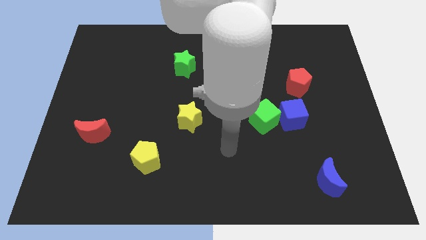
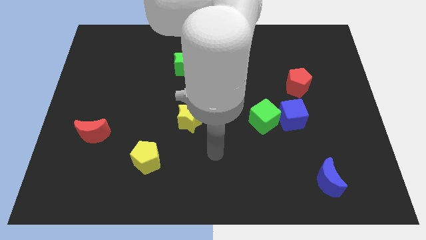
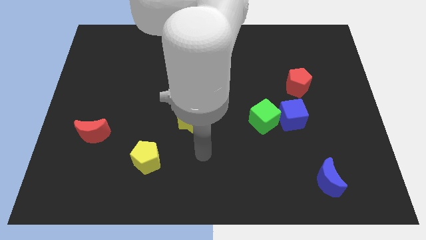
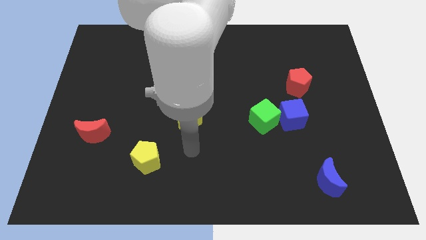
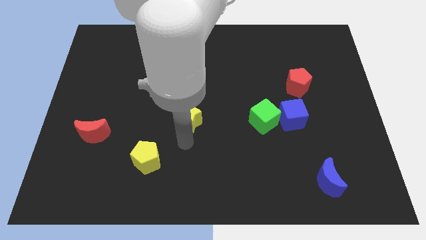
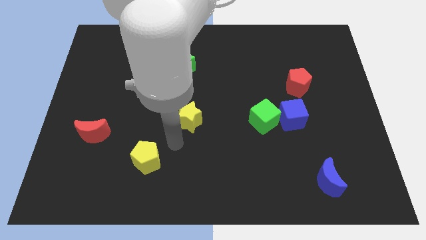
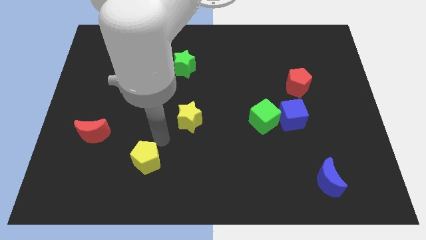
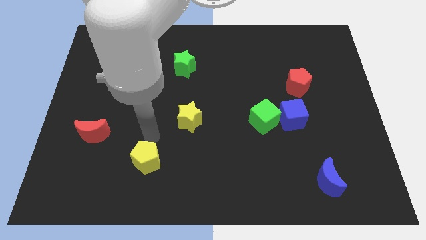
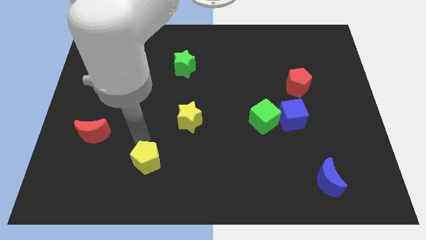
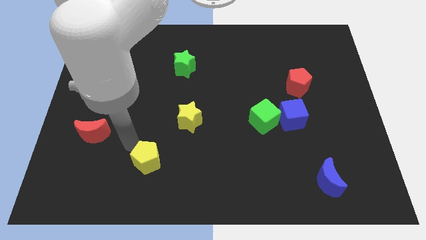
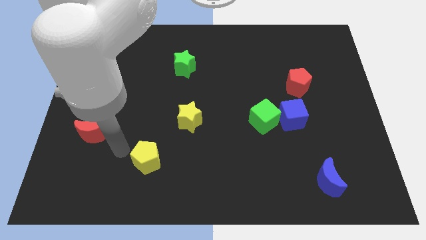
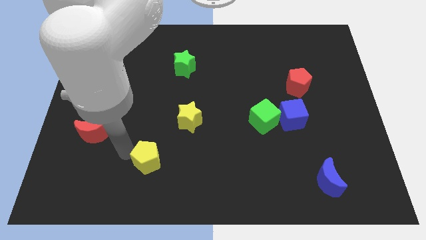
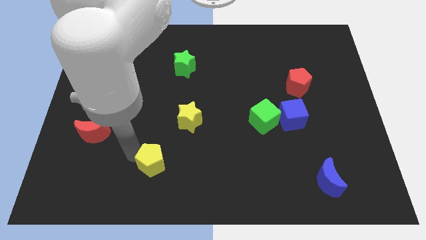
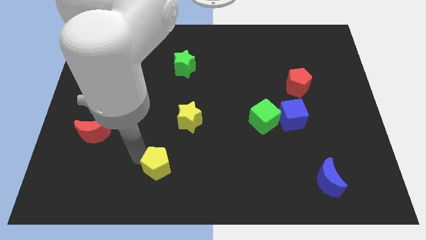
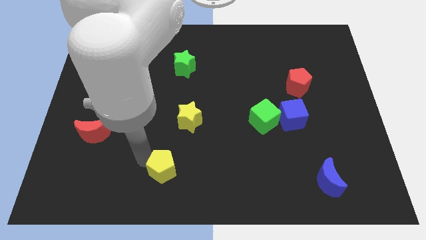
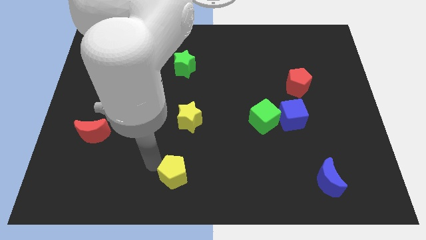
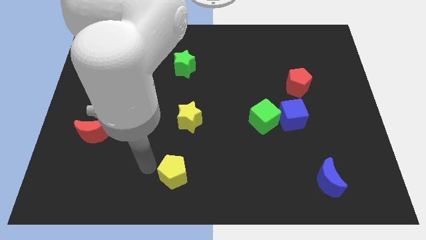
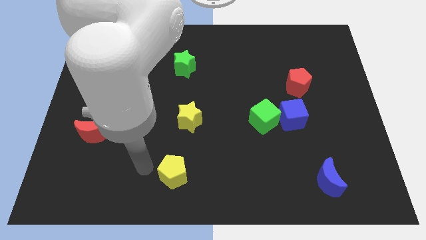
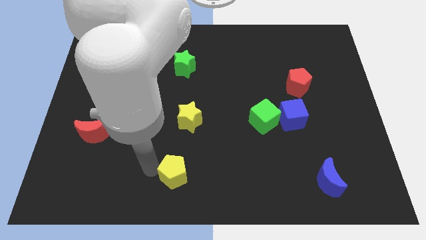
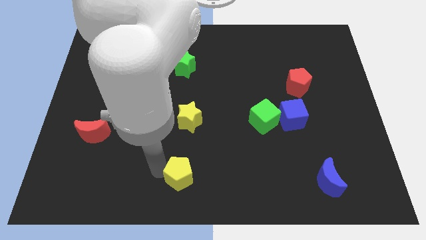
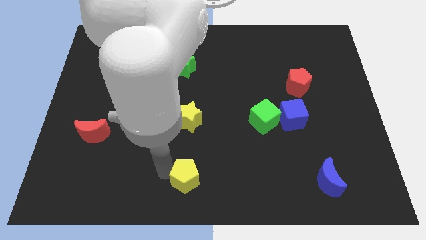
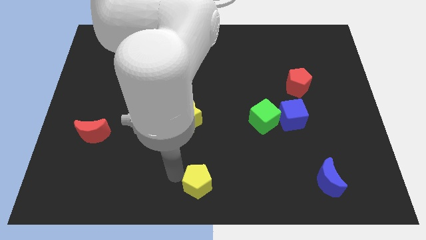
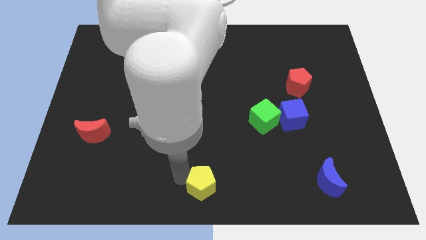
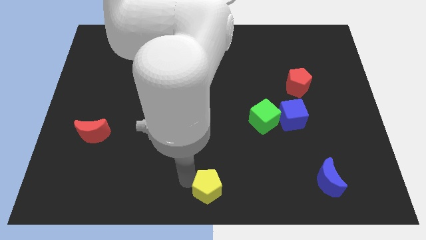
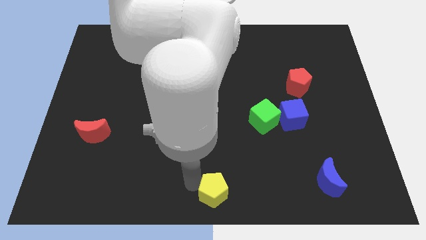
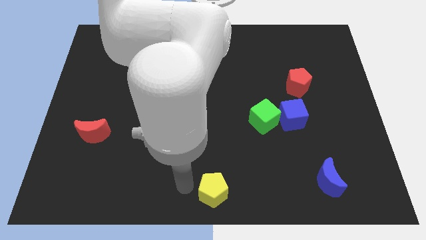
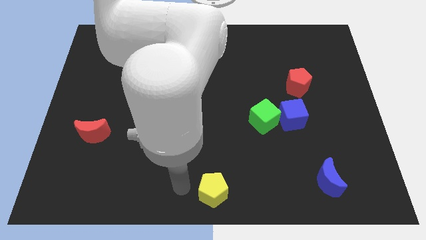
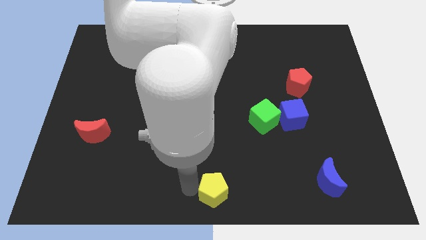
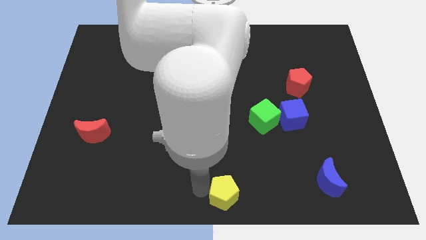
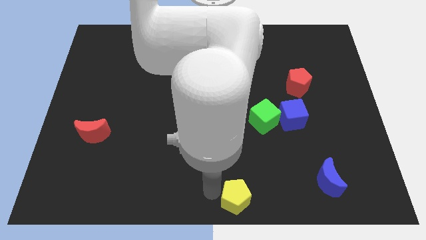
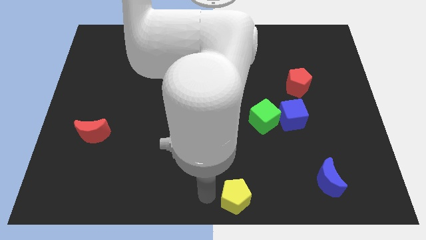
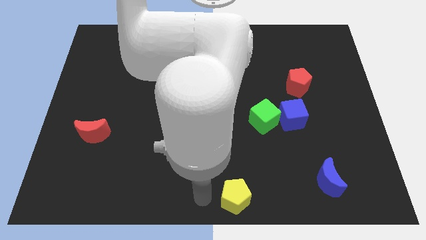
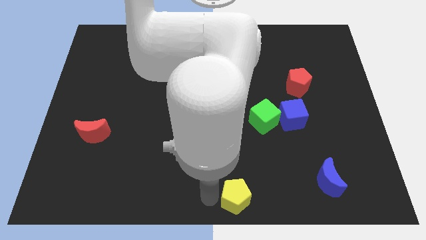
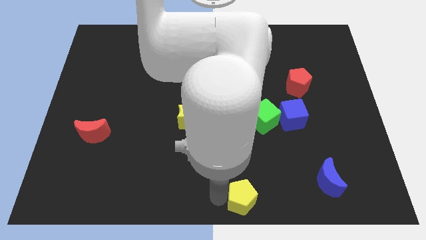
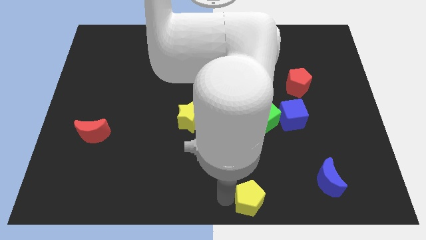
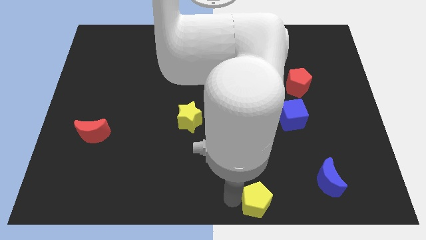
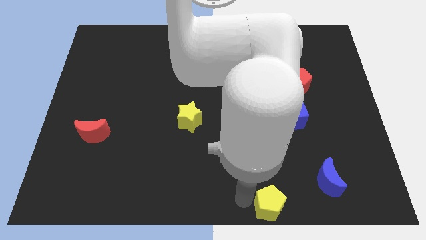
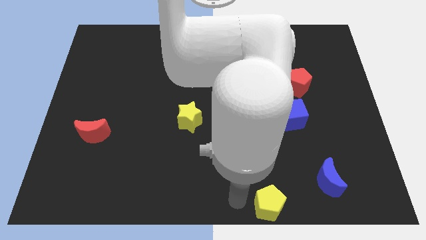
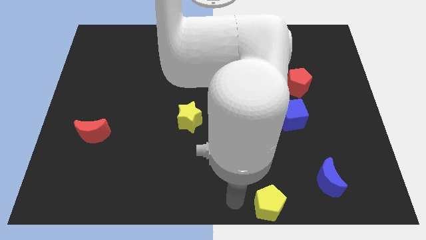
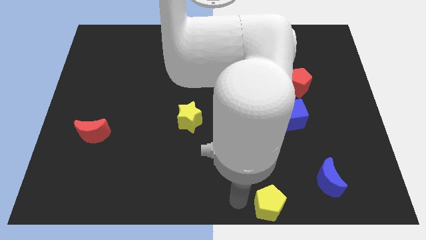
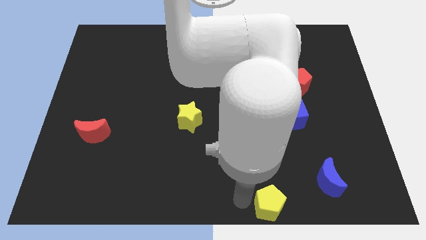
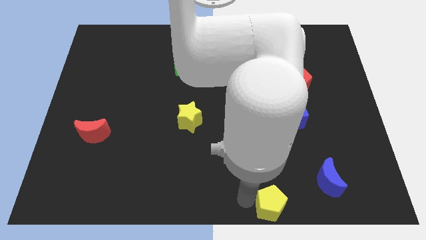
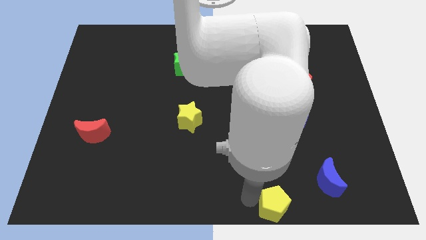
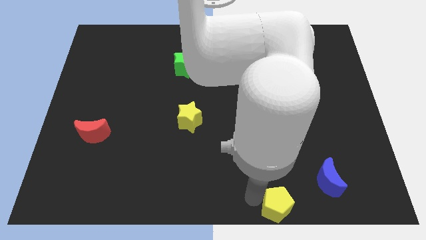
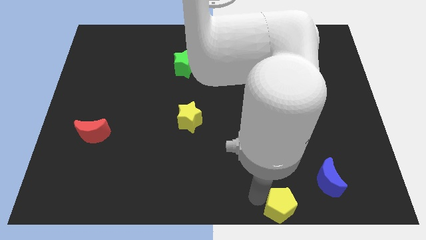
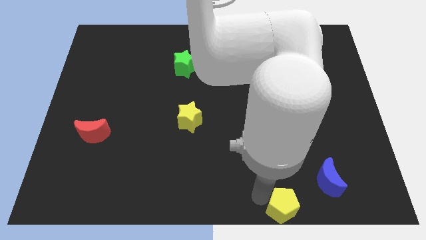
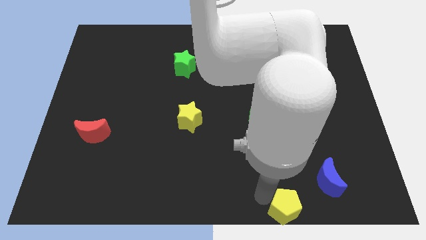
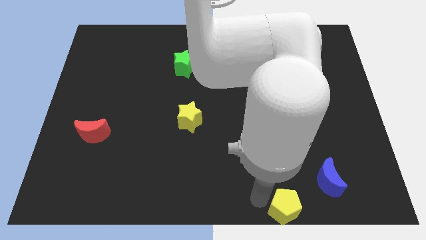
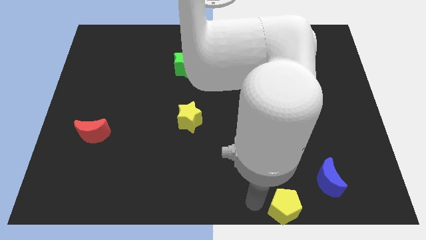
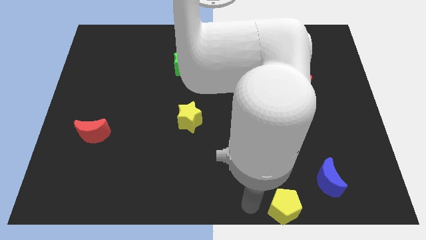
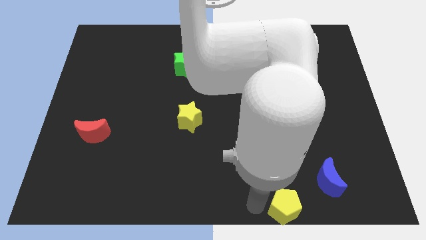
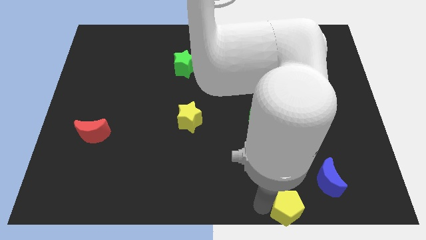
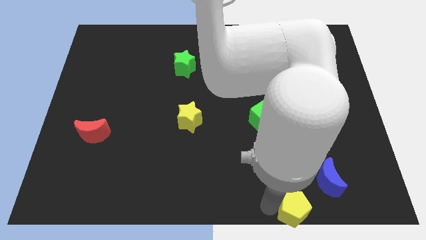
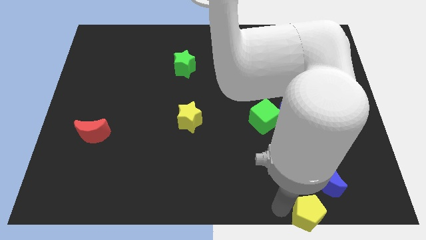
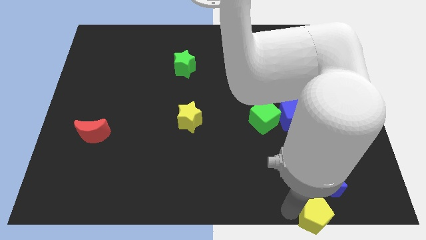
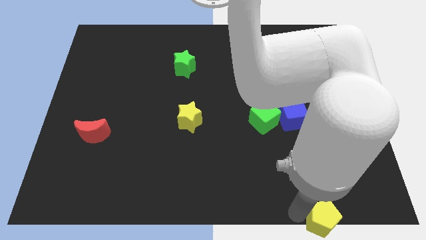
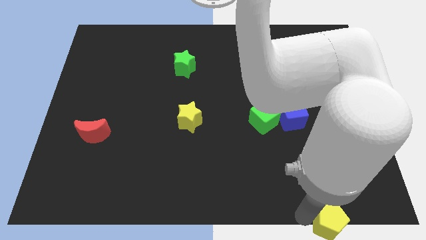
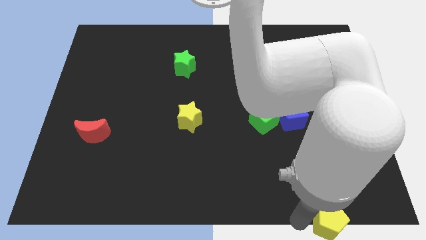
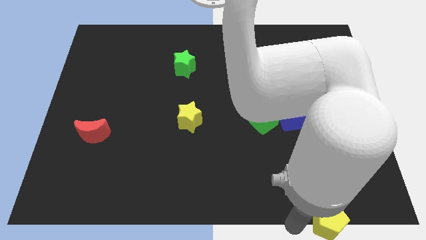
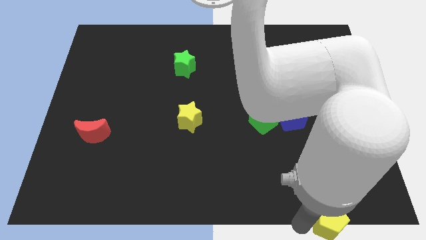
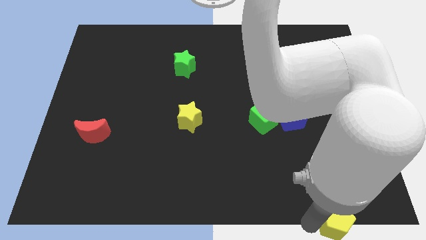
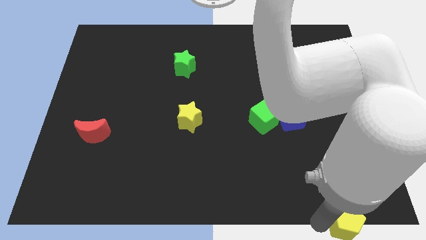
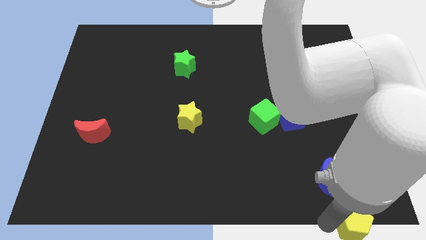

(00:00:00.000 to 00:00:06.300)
put the yellow pentagon to the bottom right corner
